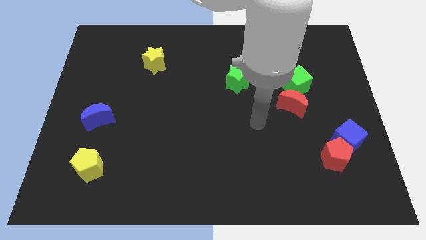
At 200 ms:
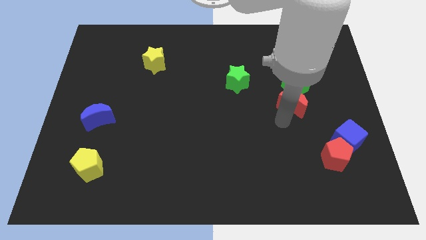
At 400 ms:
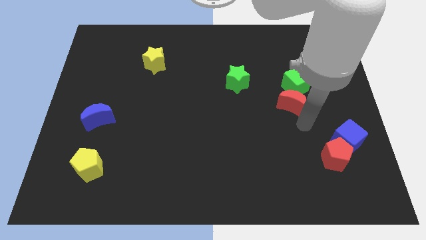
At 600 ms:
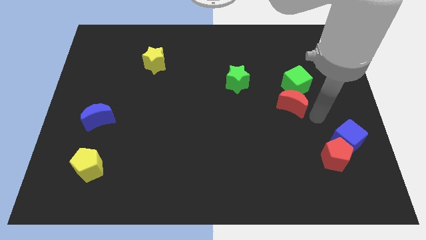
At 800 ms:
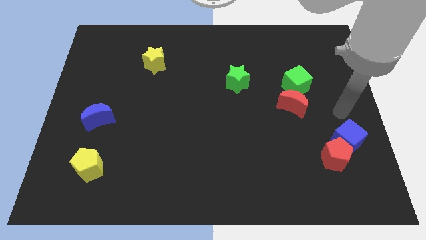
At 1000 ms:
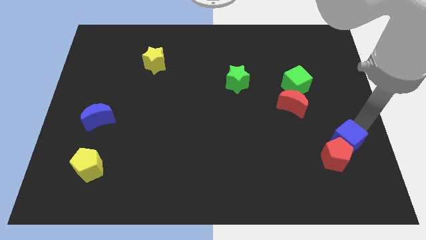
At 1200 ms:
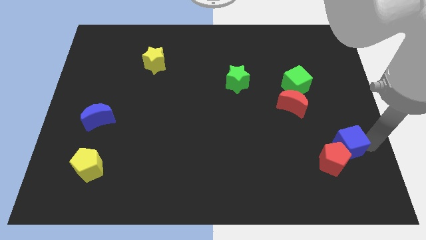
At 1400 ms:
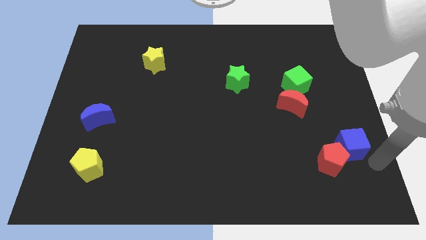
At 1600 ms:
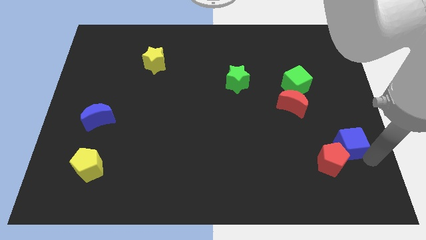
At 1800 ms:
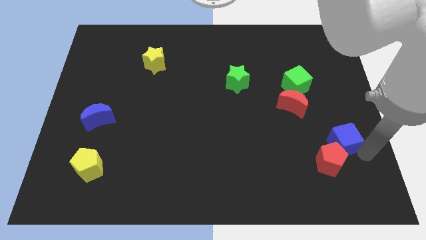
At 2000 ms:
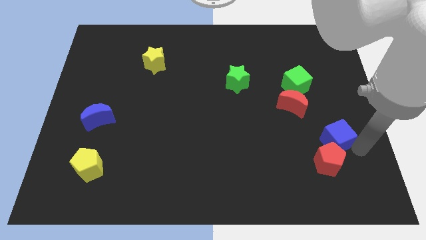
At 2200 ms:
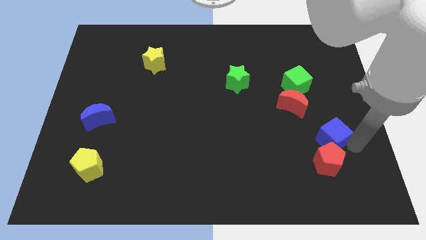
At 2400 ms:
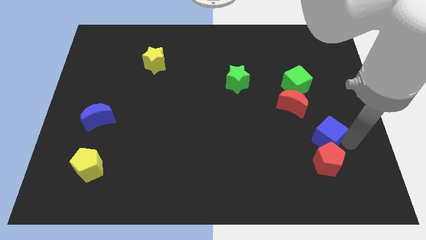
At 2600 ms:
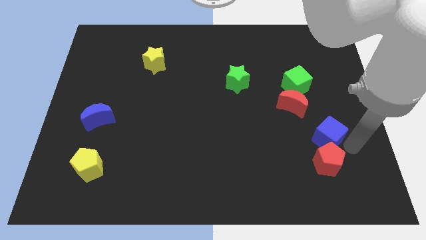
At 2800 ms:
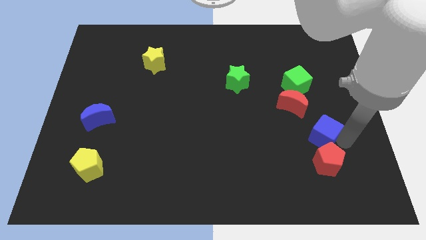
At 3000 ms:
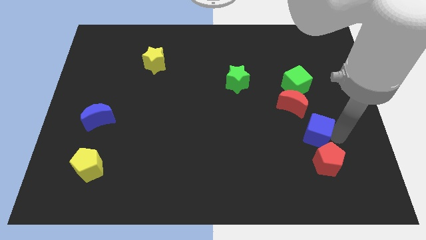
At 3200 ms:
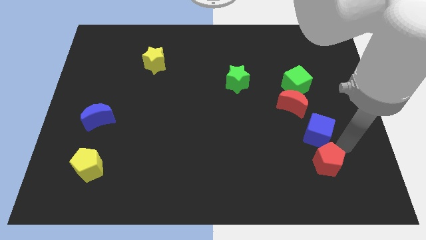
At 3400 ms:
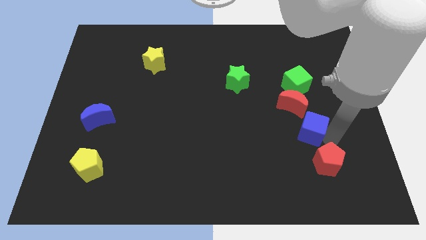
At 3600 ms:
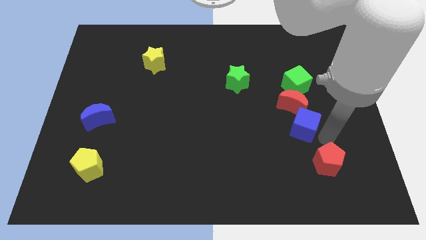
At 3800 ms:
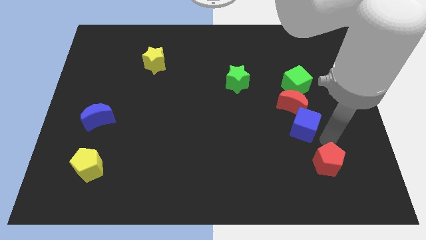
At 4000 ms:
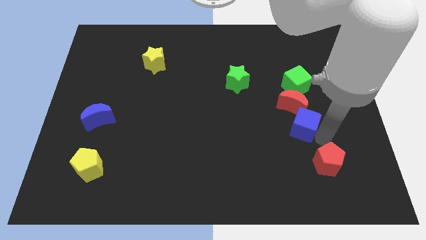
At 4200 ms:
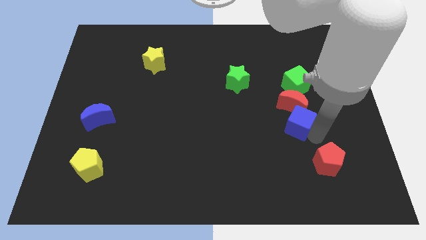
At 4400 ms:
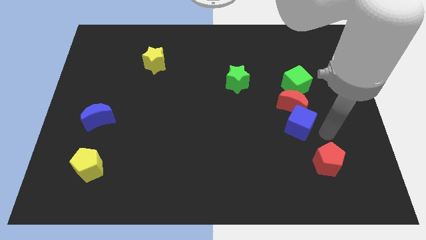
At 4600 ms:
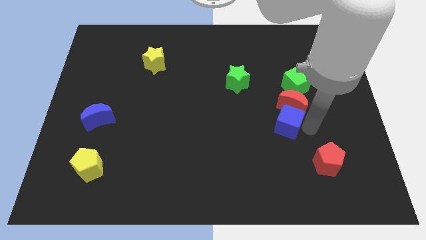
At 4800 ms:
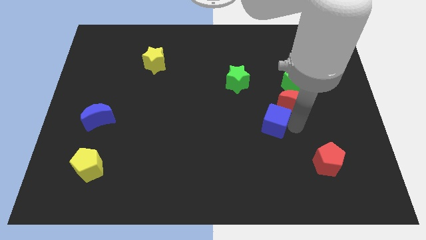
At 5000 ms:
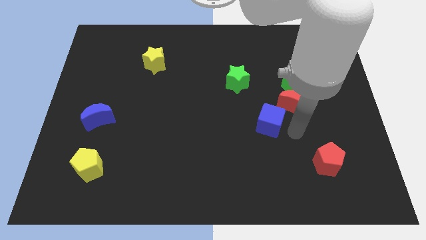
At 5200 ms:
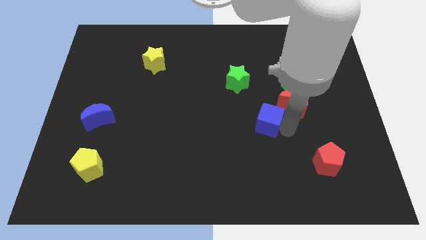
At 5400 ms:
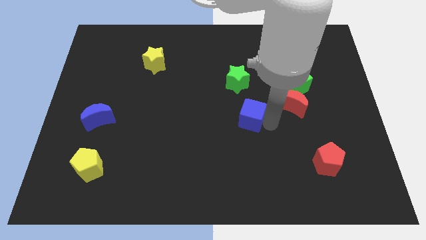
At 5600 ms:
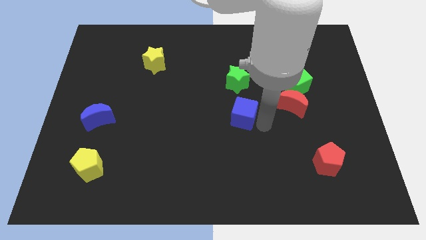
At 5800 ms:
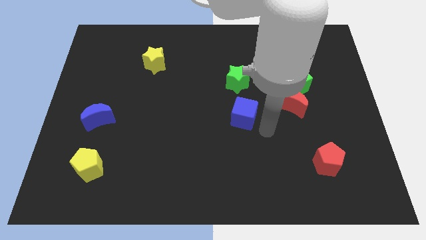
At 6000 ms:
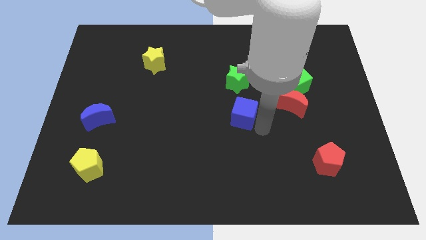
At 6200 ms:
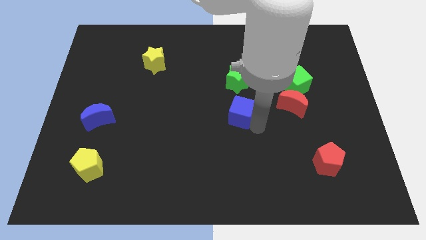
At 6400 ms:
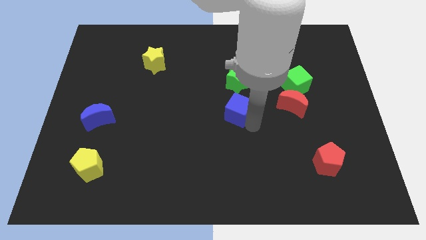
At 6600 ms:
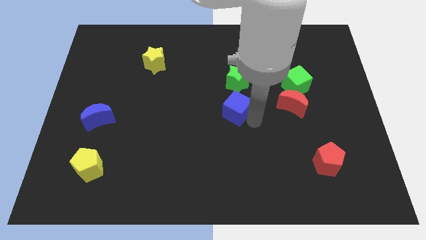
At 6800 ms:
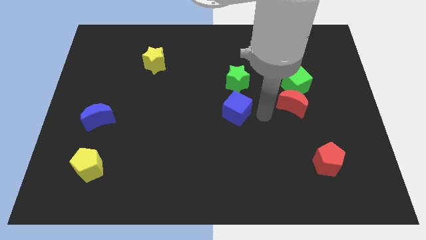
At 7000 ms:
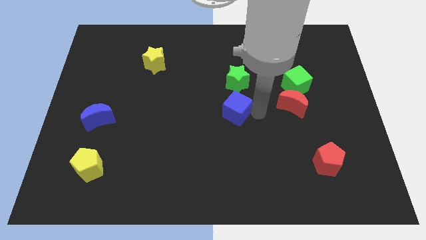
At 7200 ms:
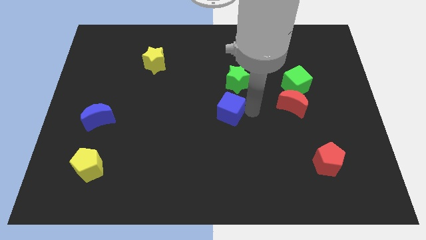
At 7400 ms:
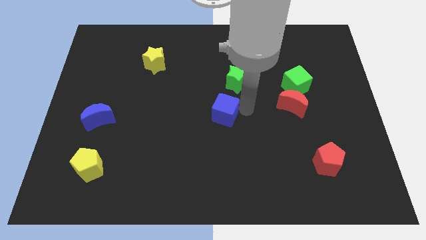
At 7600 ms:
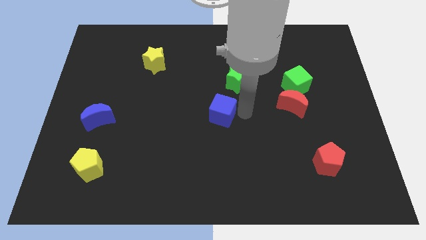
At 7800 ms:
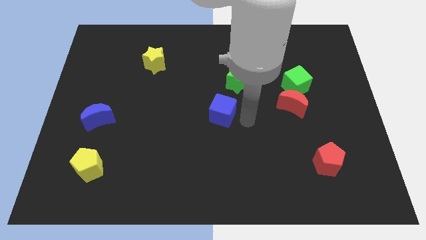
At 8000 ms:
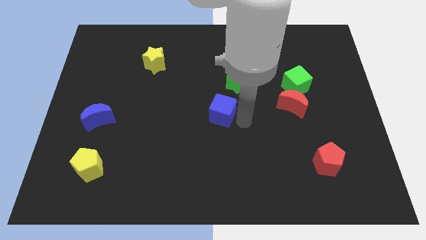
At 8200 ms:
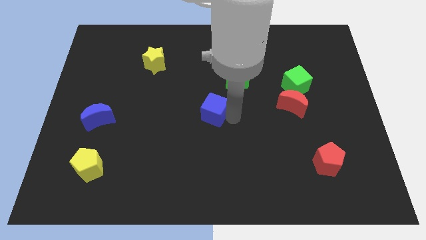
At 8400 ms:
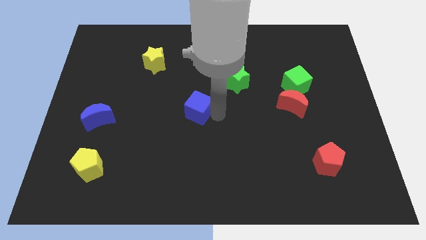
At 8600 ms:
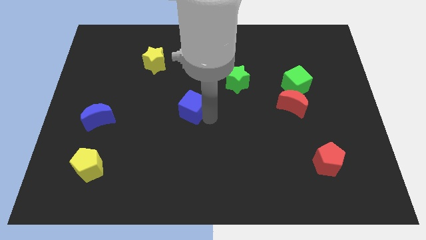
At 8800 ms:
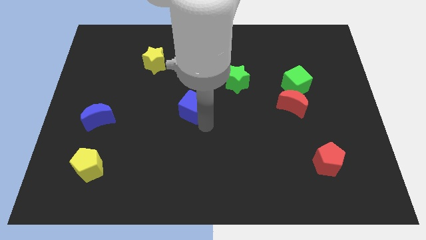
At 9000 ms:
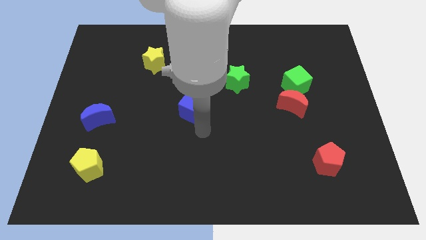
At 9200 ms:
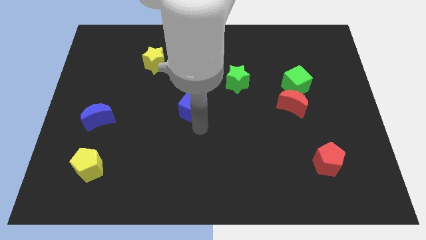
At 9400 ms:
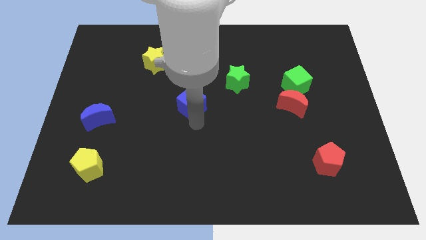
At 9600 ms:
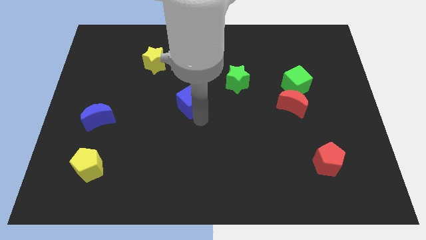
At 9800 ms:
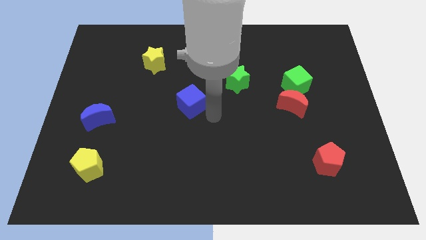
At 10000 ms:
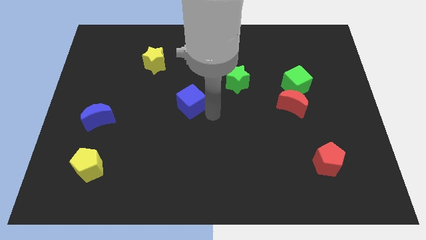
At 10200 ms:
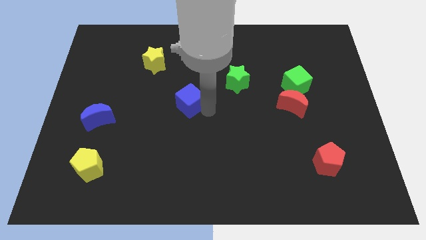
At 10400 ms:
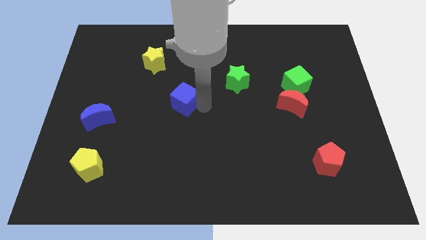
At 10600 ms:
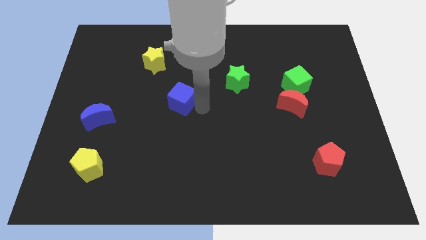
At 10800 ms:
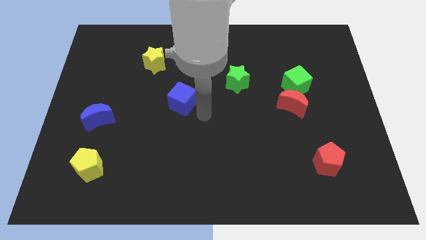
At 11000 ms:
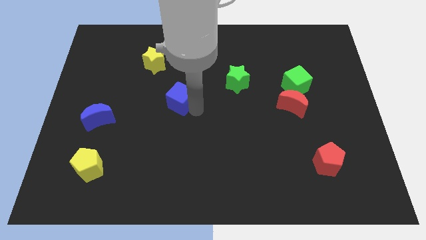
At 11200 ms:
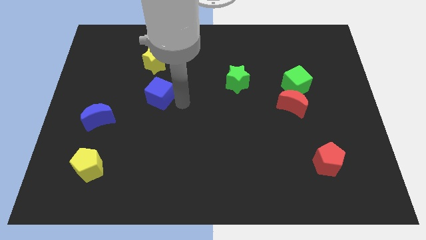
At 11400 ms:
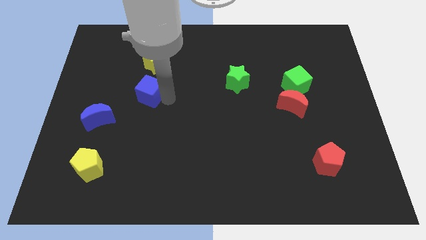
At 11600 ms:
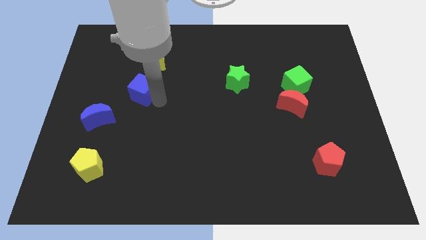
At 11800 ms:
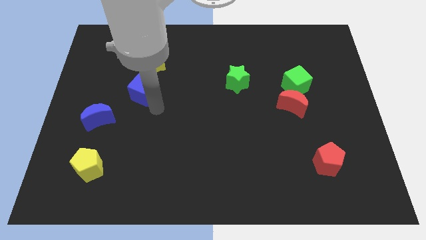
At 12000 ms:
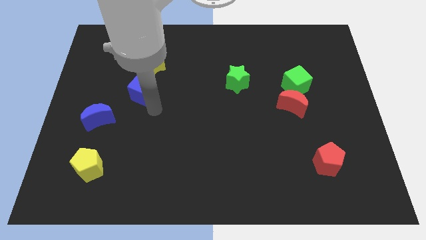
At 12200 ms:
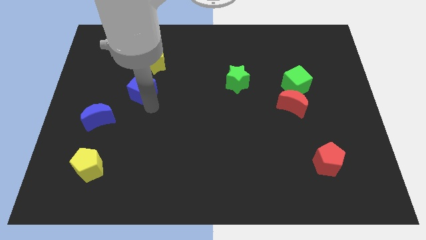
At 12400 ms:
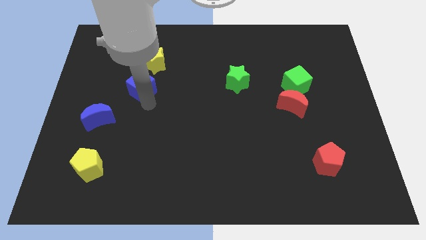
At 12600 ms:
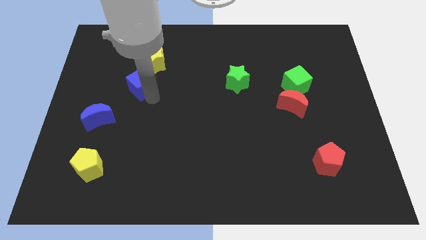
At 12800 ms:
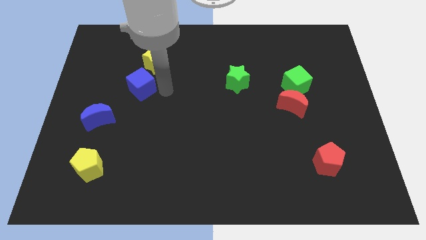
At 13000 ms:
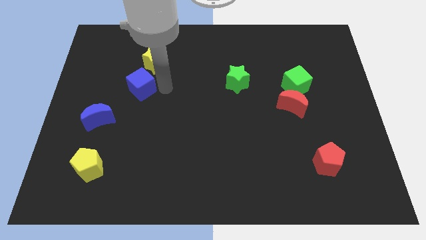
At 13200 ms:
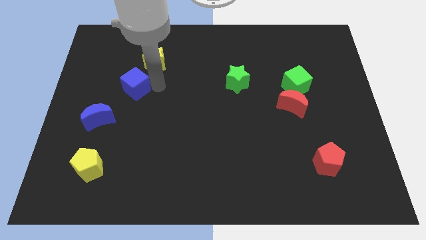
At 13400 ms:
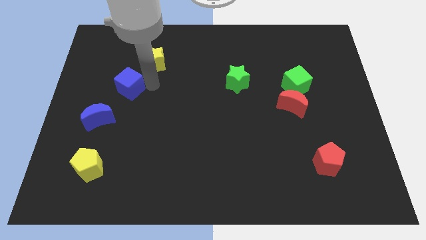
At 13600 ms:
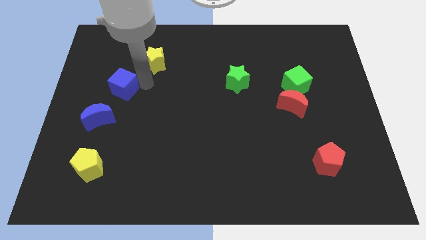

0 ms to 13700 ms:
slide the blue cube to the top side of the blue moon

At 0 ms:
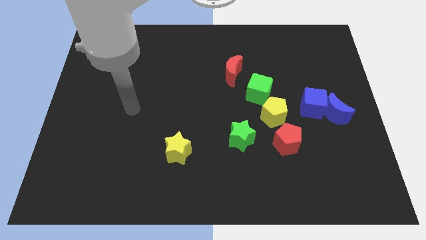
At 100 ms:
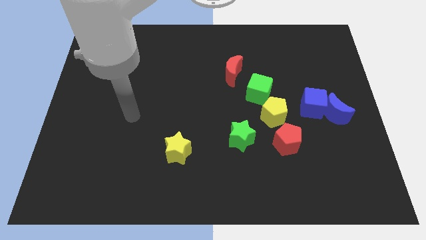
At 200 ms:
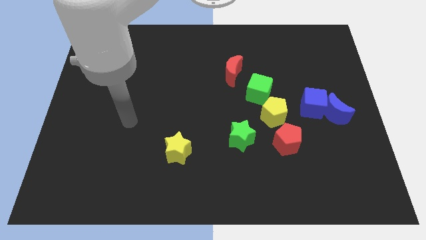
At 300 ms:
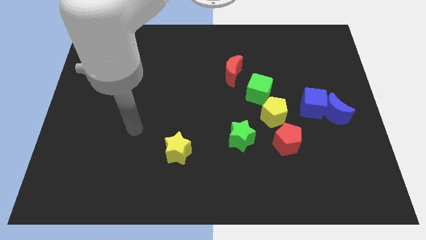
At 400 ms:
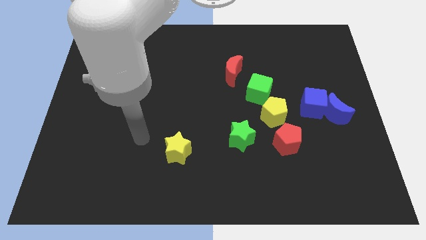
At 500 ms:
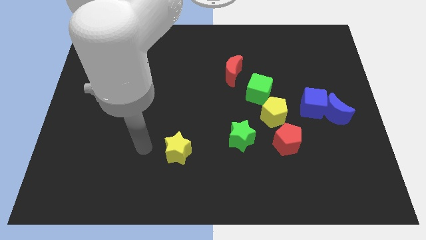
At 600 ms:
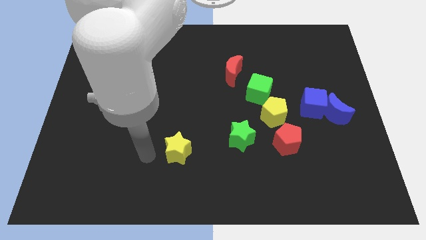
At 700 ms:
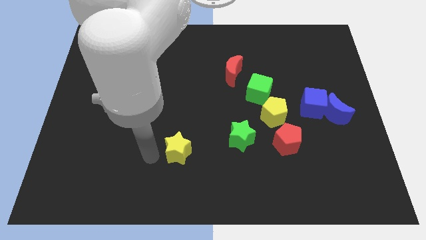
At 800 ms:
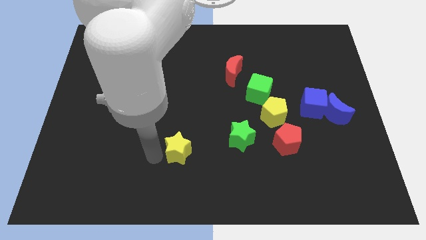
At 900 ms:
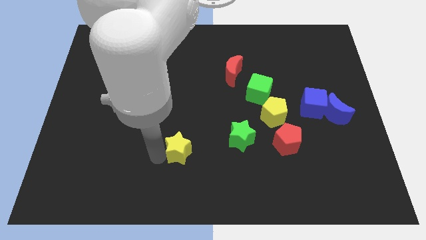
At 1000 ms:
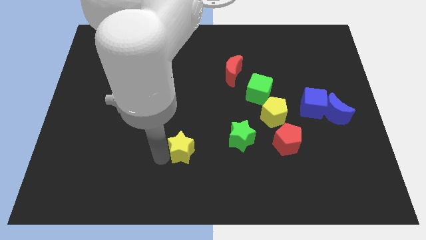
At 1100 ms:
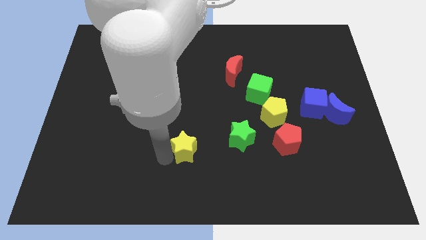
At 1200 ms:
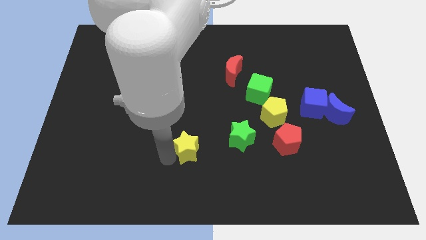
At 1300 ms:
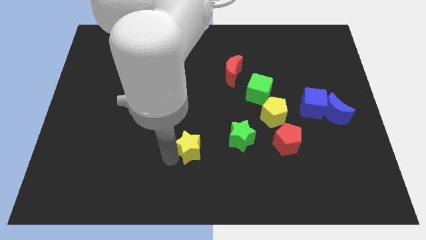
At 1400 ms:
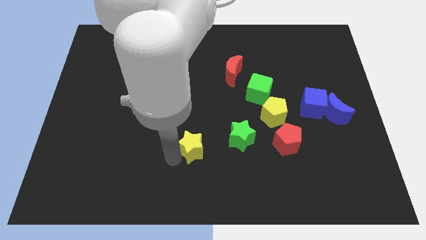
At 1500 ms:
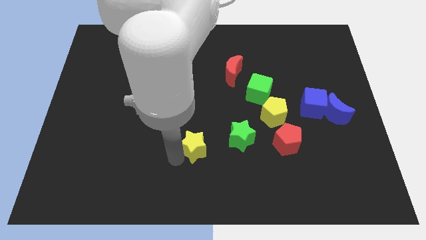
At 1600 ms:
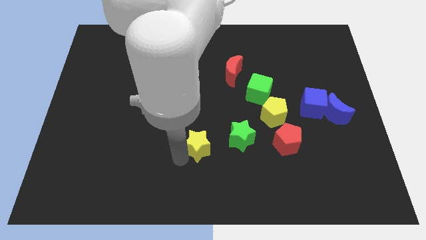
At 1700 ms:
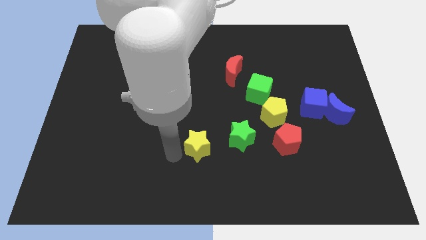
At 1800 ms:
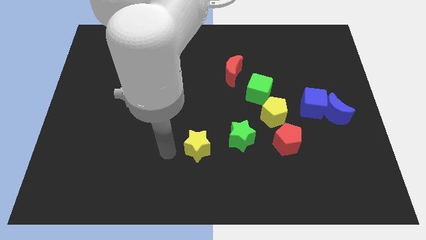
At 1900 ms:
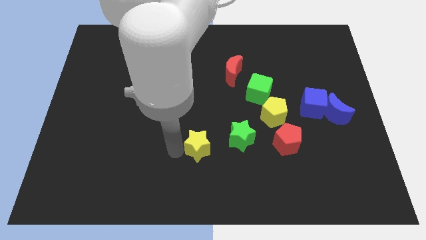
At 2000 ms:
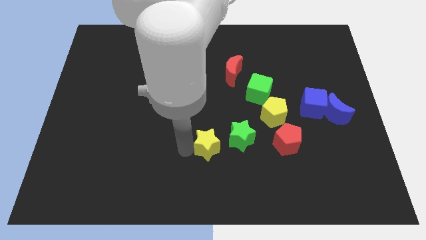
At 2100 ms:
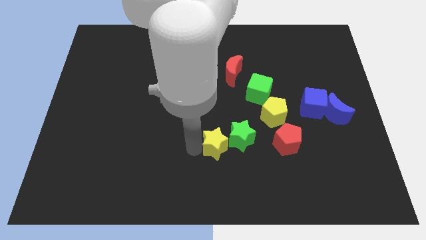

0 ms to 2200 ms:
slide the yellow star to the left side of the red pentagon
